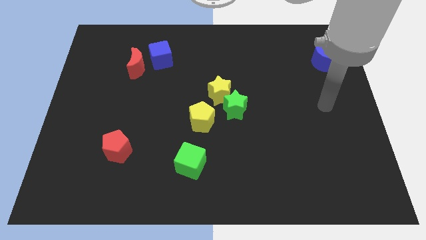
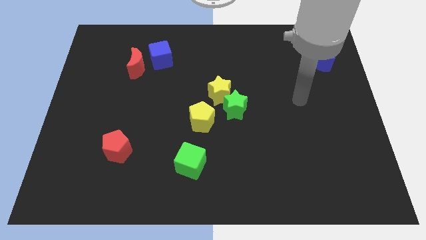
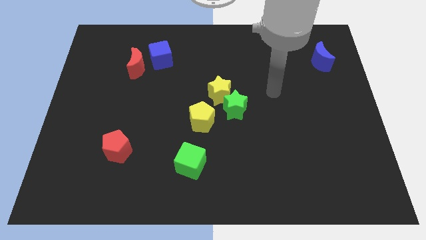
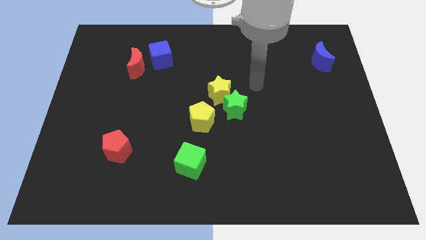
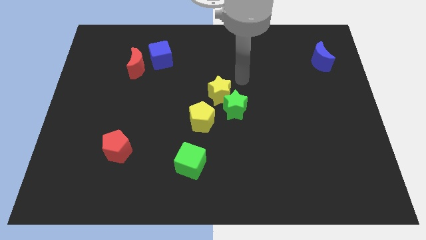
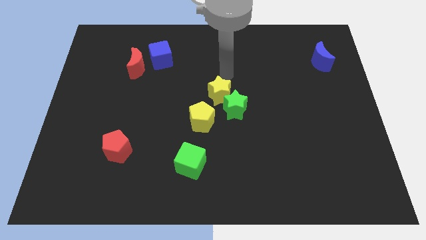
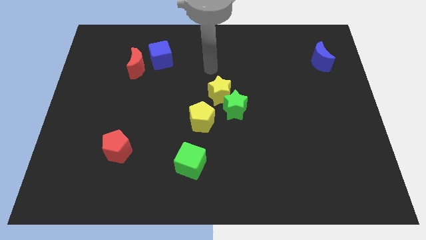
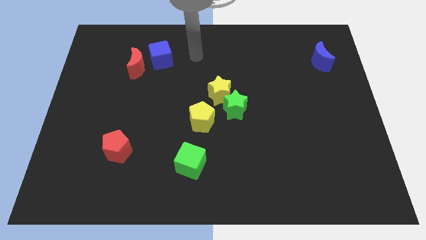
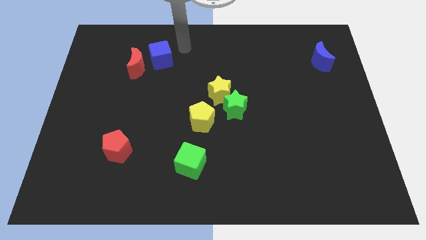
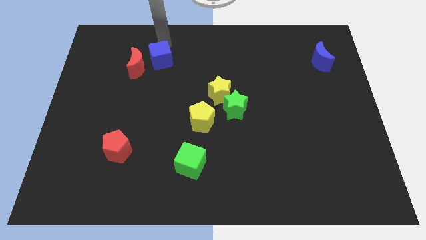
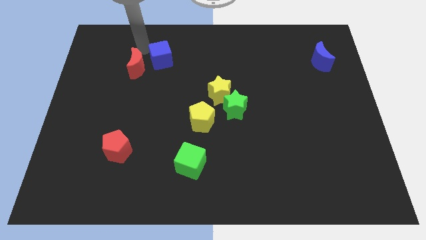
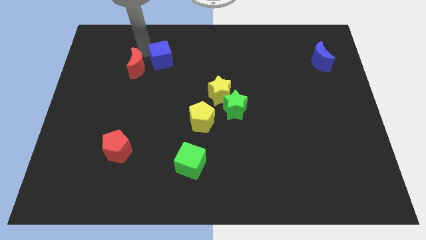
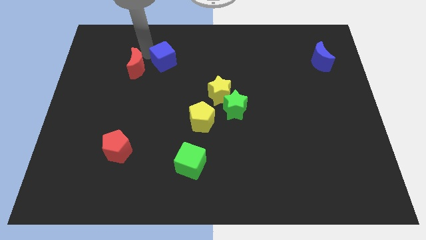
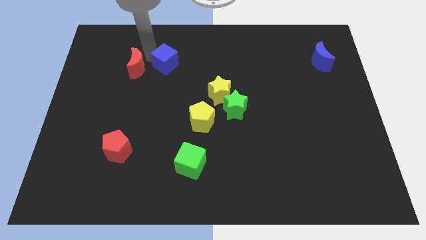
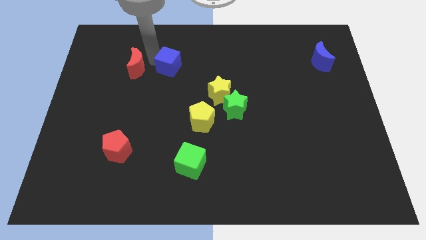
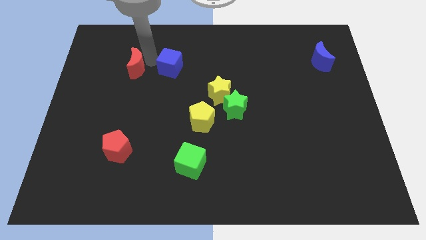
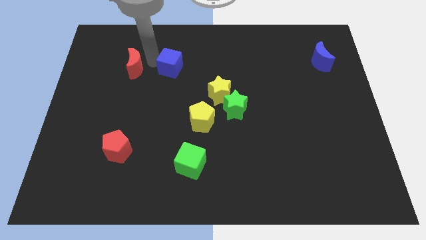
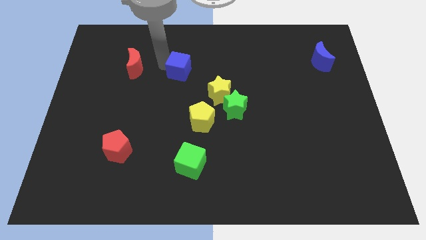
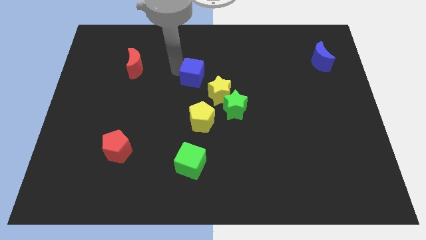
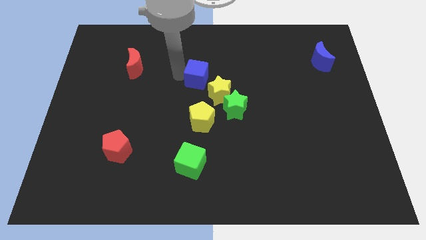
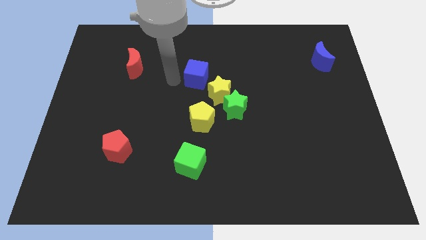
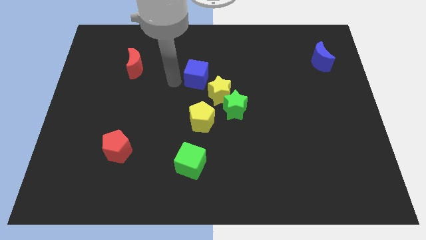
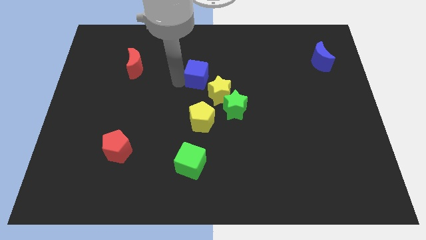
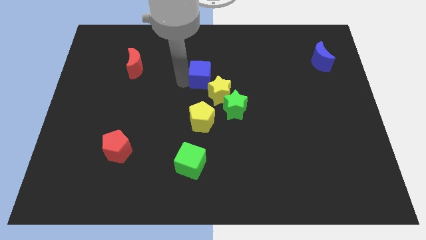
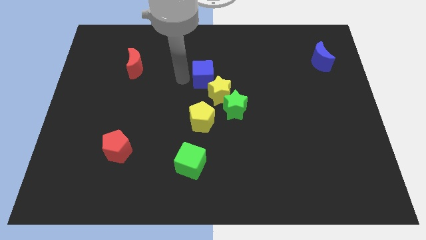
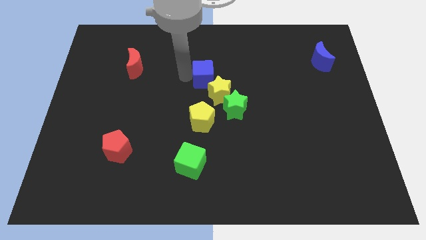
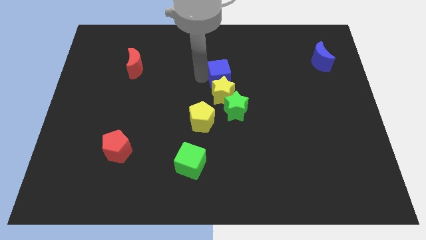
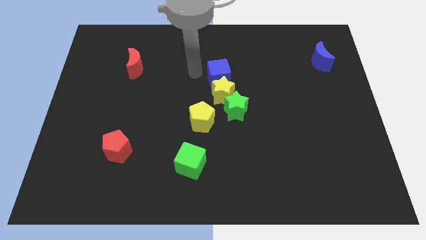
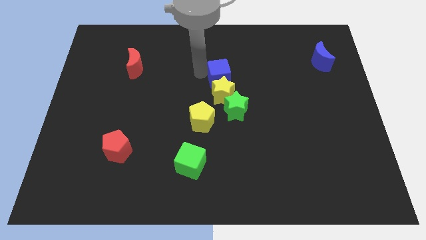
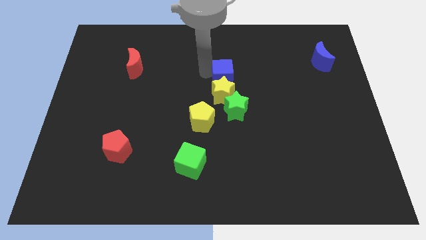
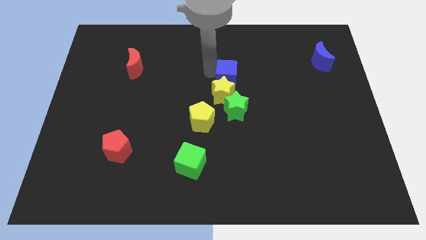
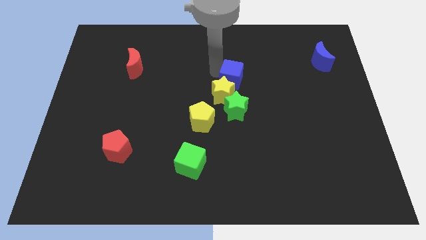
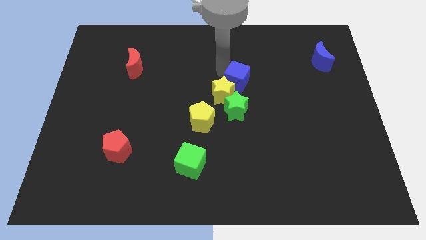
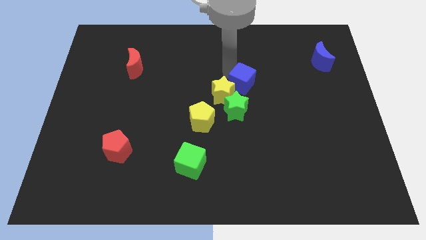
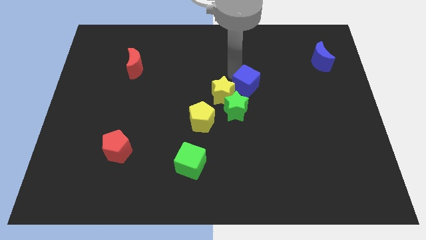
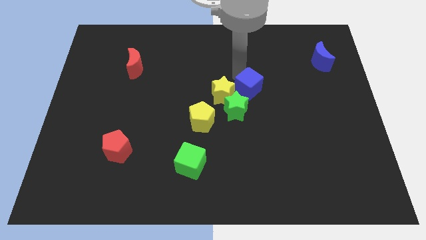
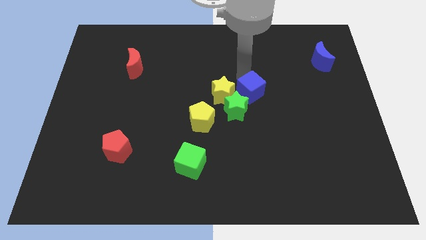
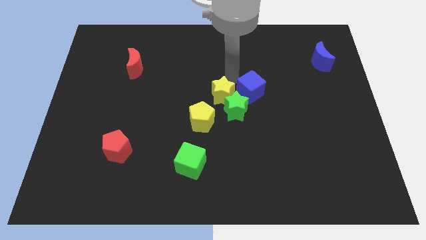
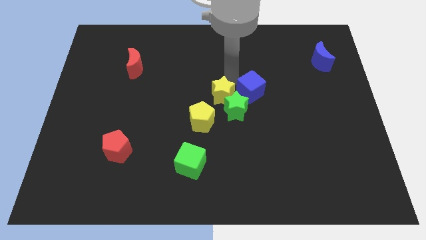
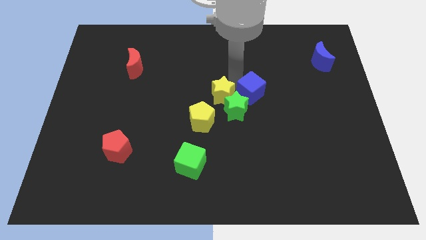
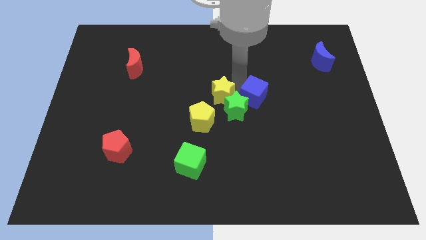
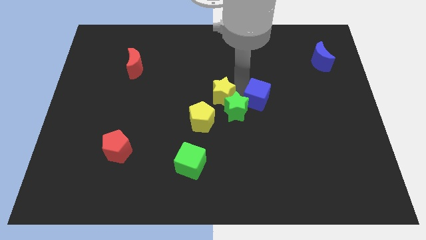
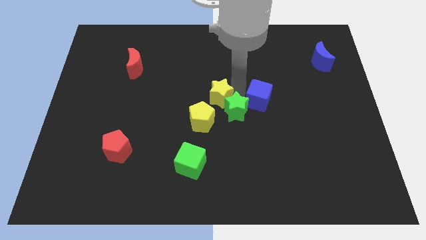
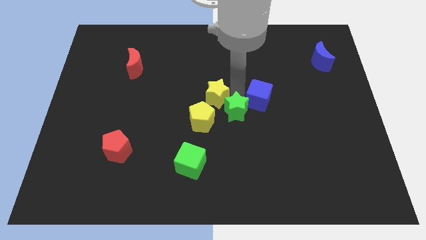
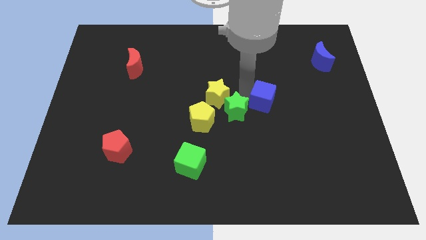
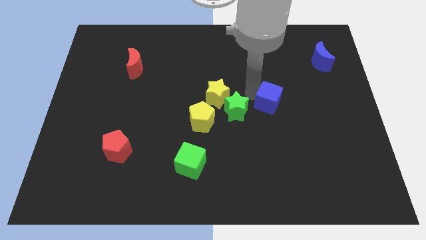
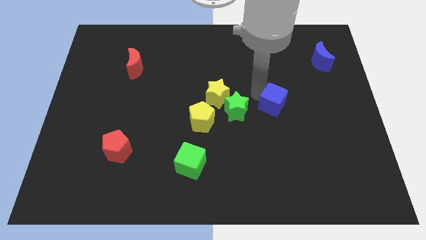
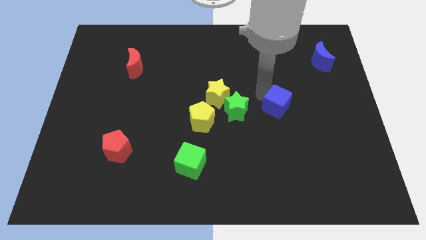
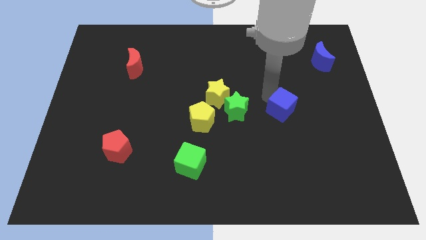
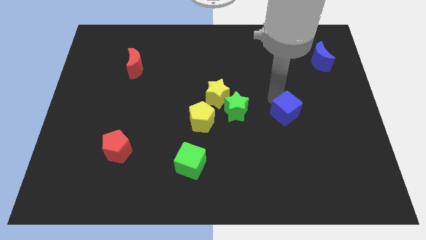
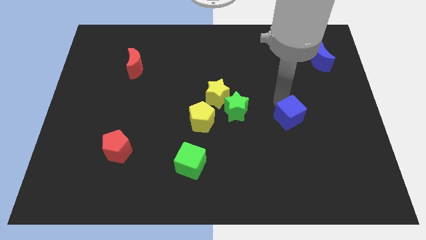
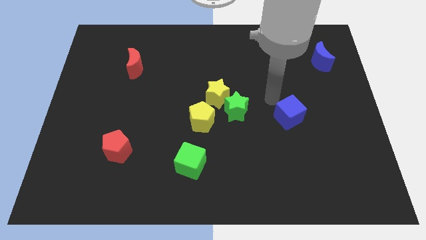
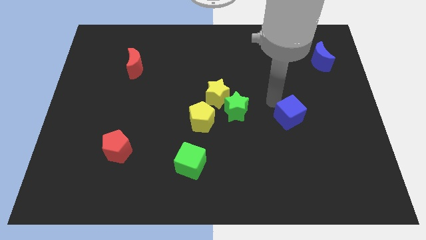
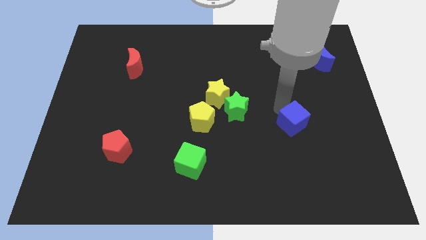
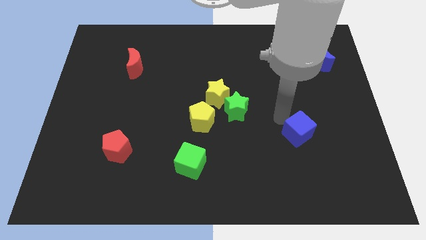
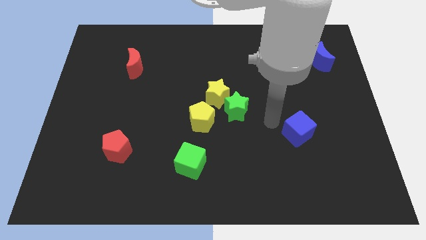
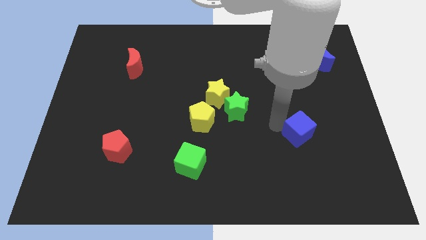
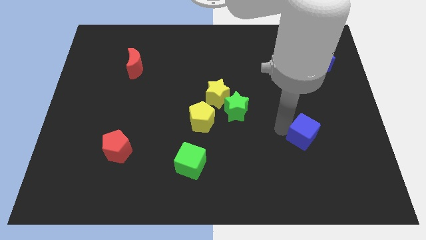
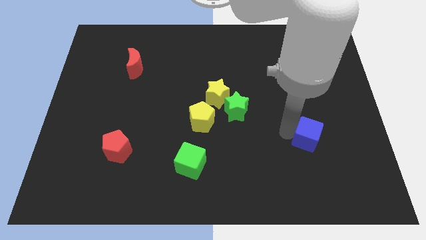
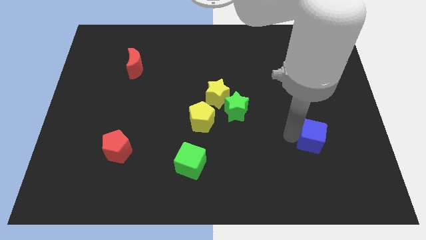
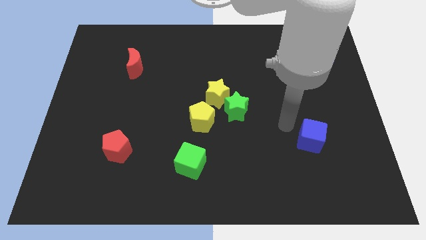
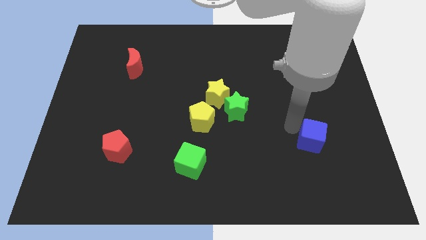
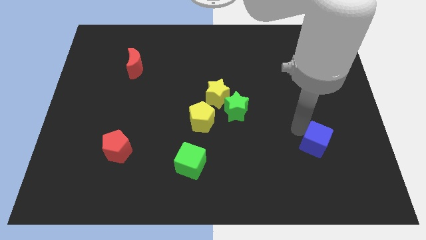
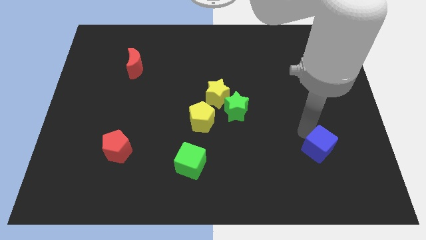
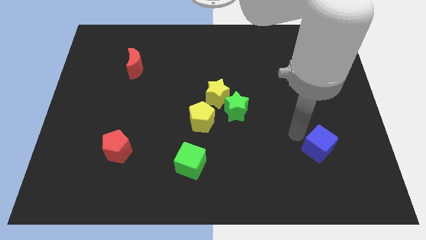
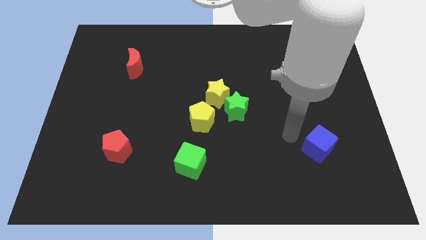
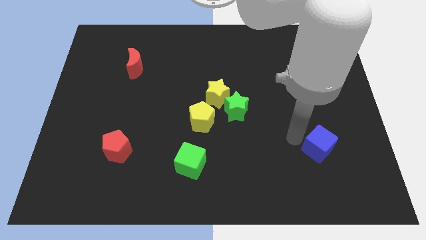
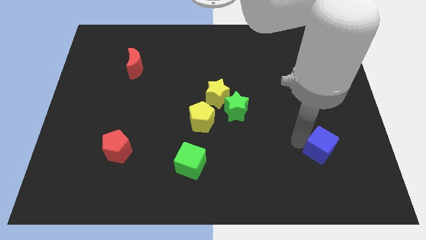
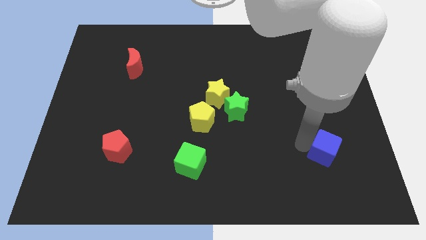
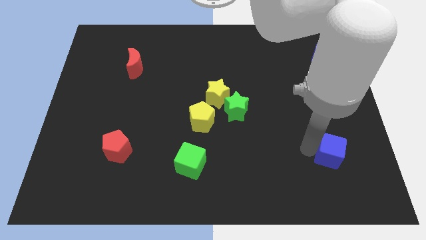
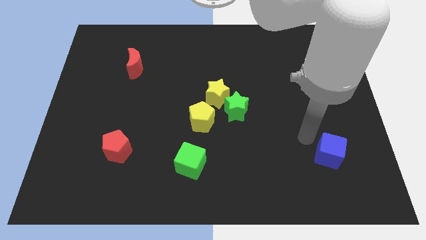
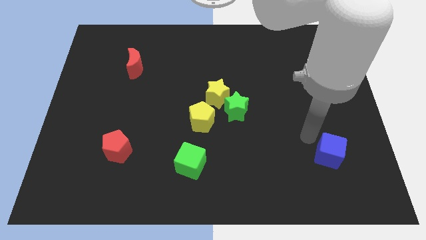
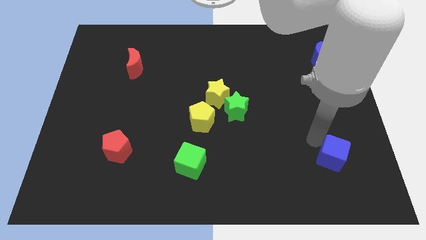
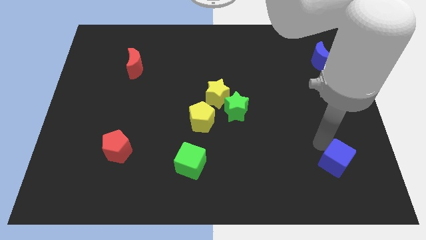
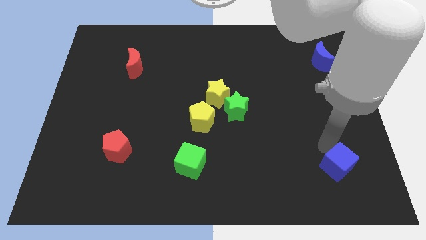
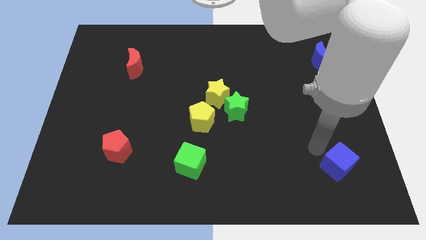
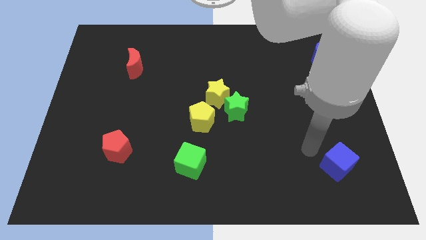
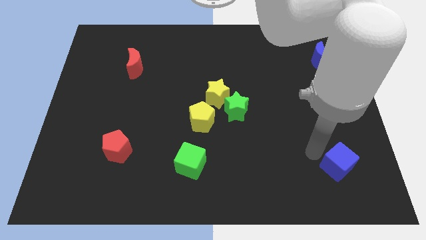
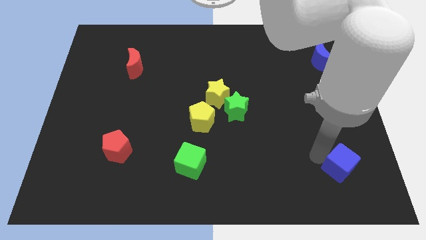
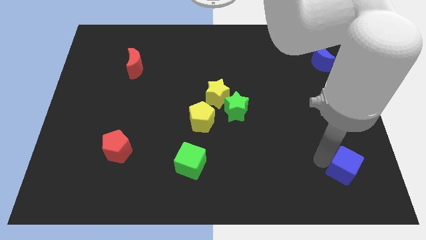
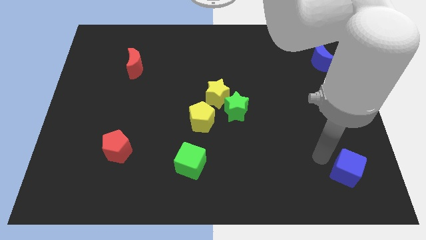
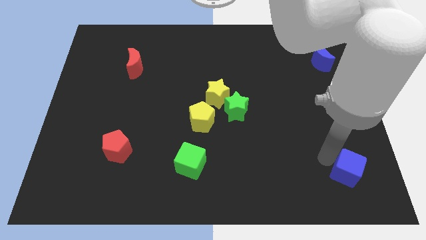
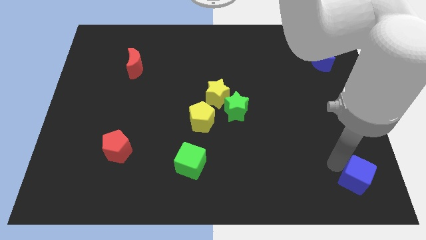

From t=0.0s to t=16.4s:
put the blue cube to the bottom right corner

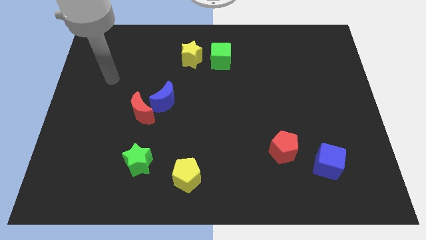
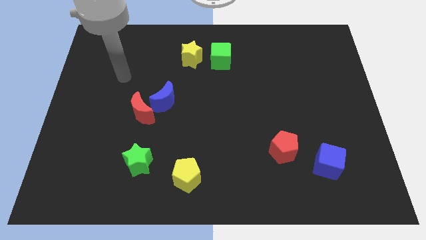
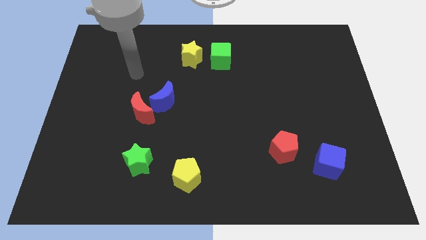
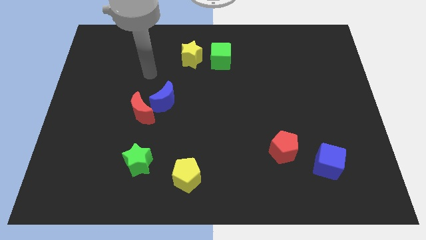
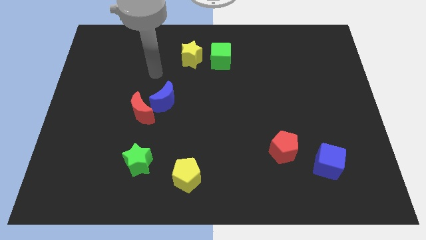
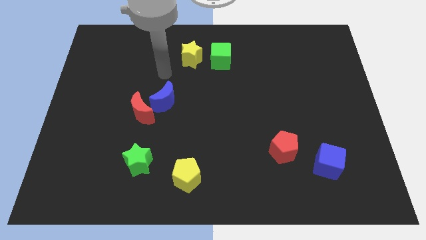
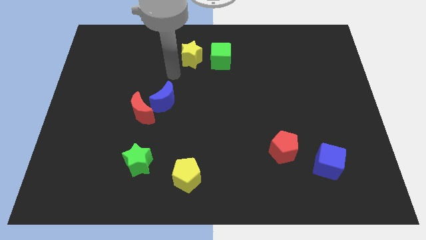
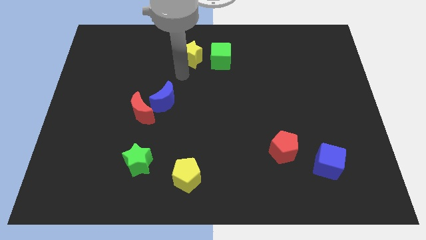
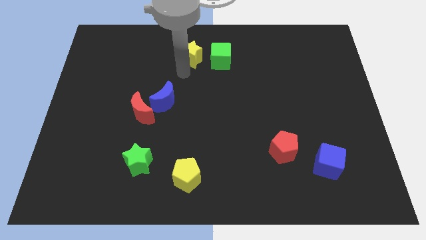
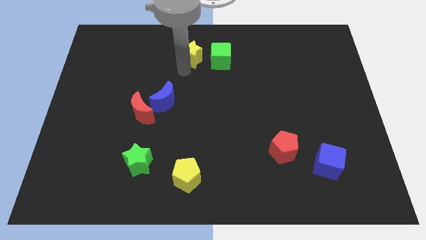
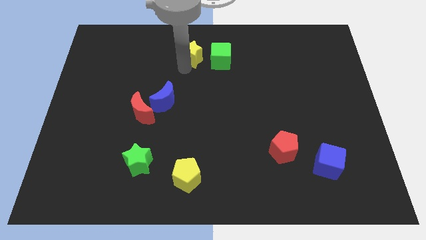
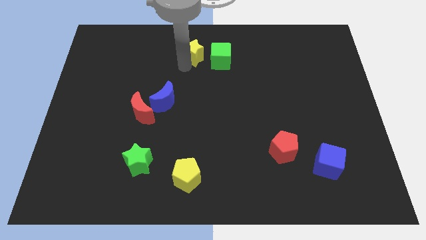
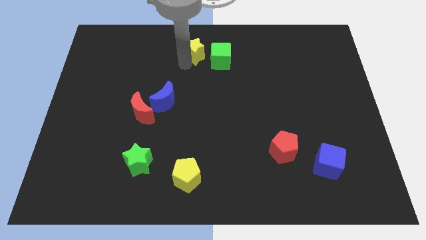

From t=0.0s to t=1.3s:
move the yellow star to the top
